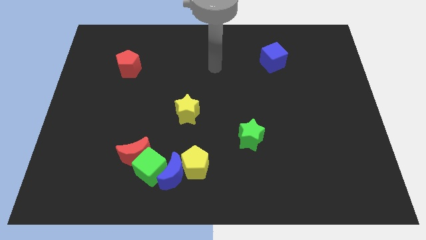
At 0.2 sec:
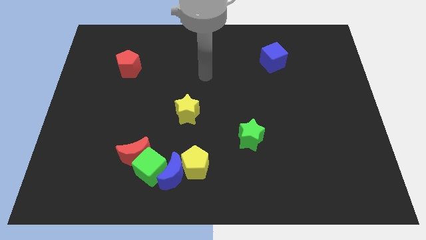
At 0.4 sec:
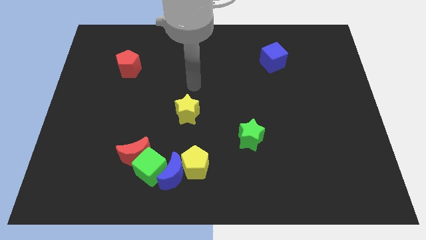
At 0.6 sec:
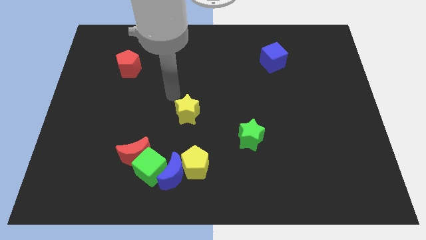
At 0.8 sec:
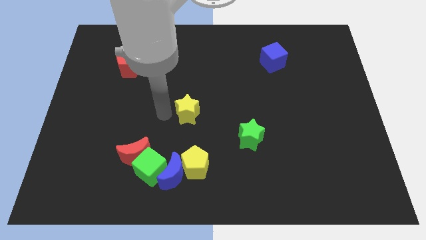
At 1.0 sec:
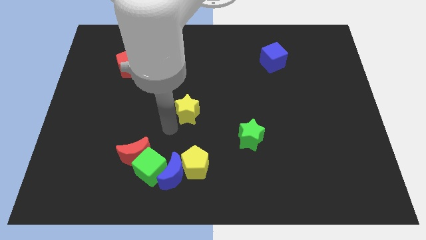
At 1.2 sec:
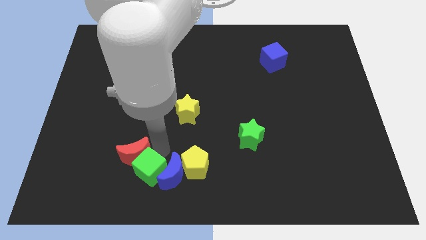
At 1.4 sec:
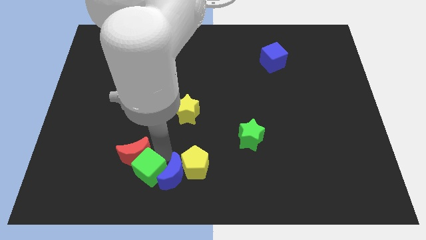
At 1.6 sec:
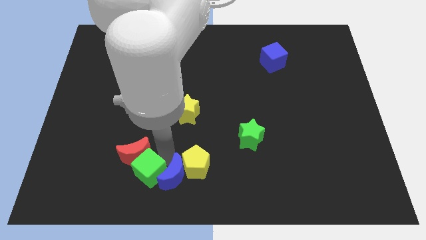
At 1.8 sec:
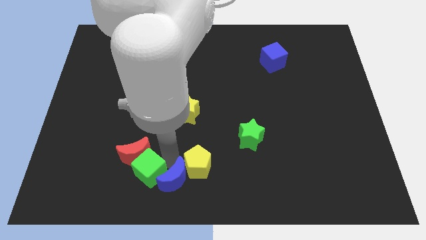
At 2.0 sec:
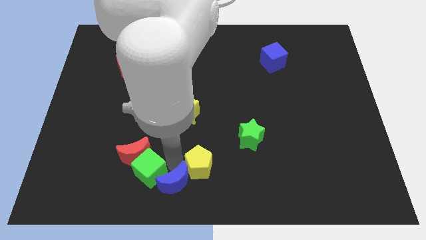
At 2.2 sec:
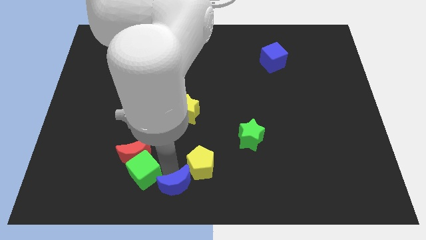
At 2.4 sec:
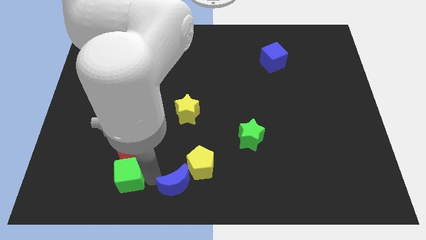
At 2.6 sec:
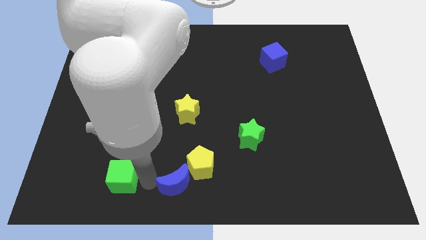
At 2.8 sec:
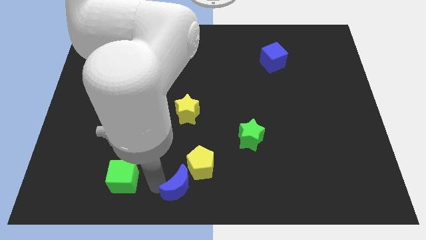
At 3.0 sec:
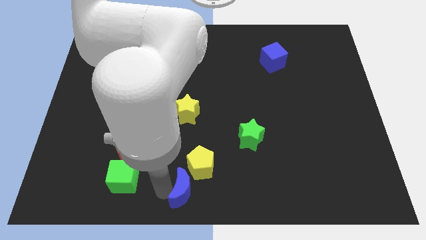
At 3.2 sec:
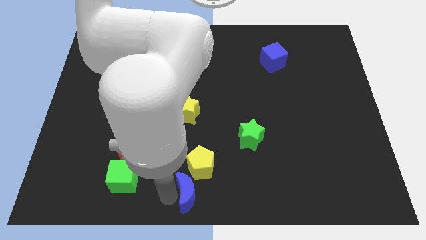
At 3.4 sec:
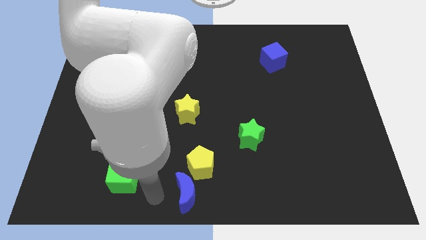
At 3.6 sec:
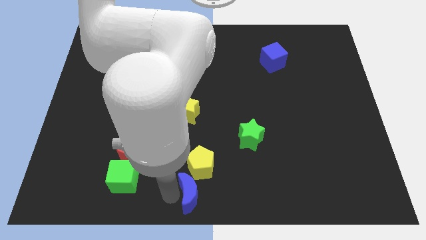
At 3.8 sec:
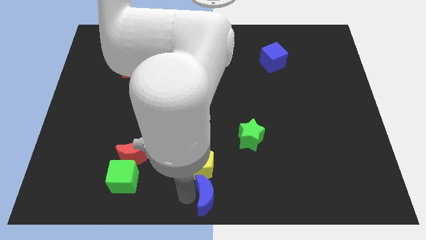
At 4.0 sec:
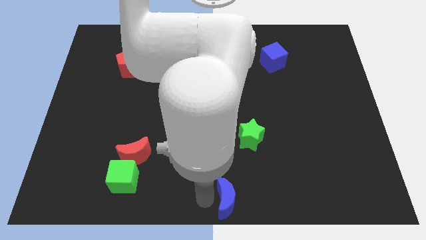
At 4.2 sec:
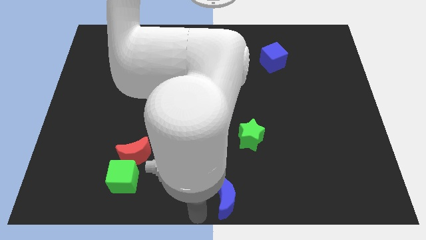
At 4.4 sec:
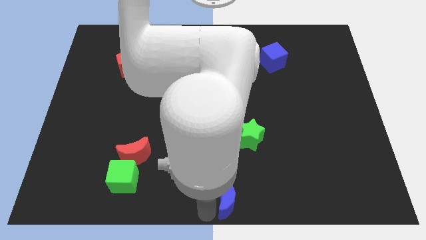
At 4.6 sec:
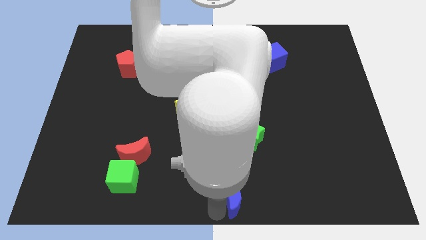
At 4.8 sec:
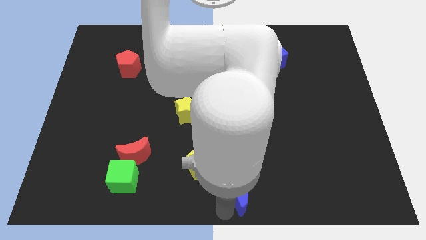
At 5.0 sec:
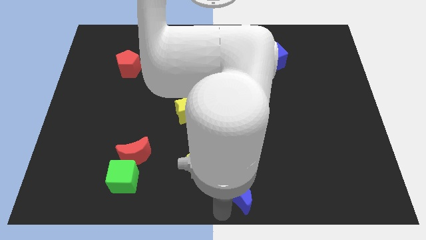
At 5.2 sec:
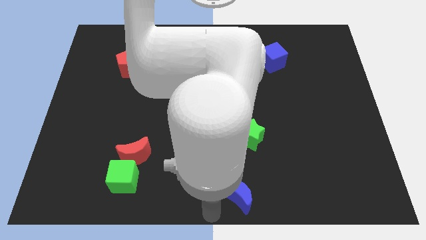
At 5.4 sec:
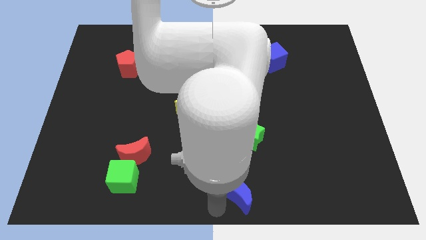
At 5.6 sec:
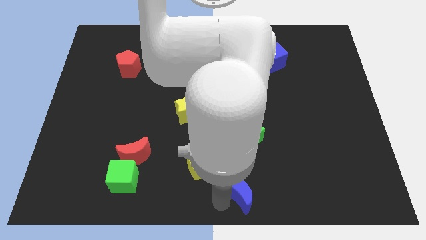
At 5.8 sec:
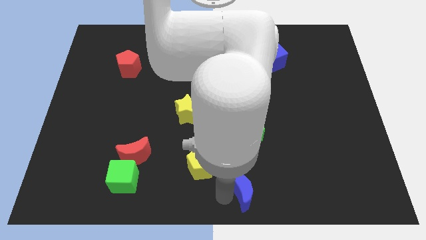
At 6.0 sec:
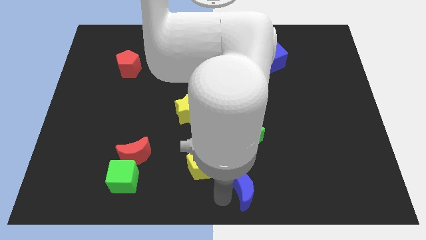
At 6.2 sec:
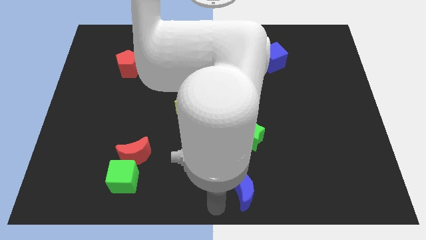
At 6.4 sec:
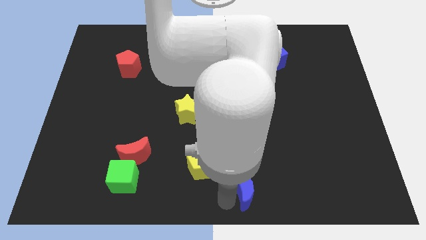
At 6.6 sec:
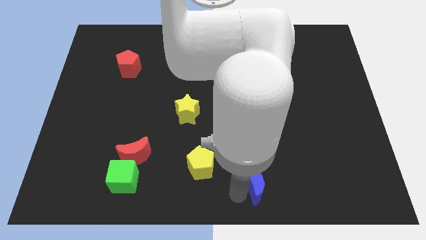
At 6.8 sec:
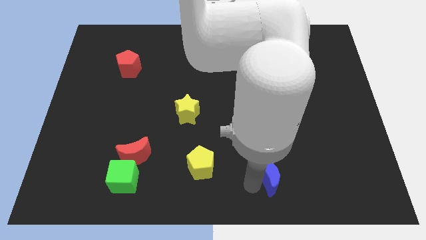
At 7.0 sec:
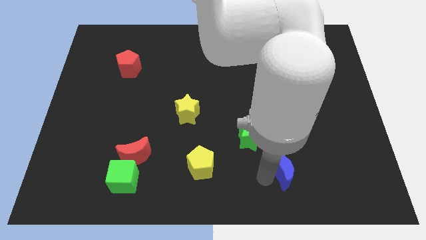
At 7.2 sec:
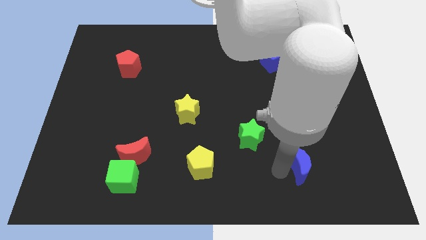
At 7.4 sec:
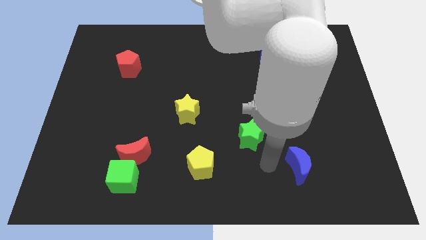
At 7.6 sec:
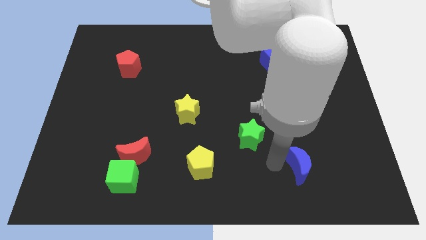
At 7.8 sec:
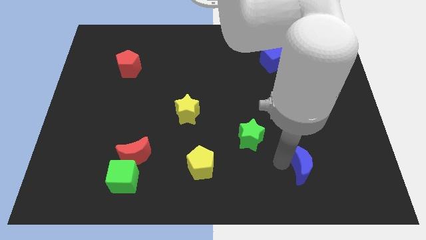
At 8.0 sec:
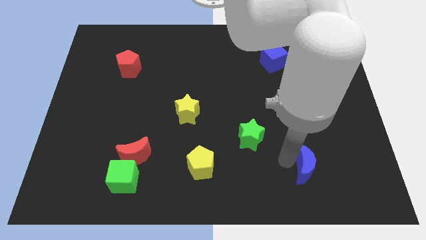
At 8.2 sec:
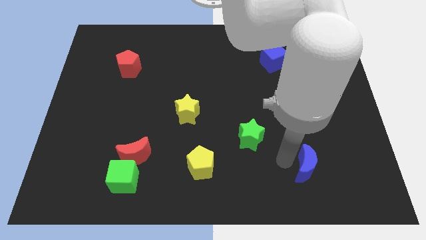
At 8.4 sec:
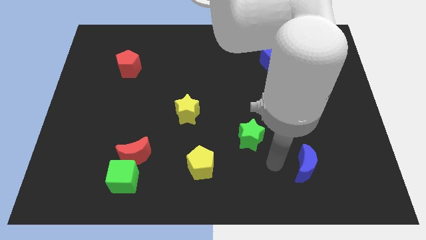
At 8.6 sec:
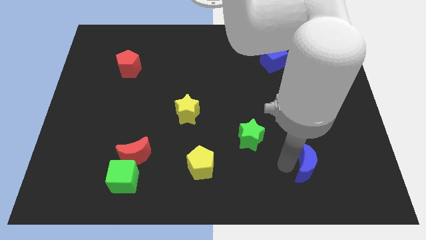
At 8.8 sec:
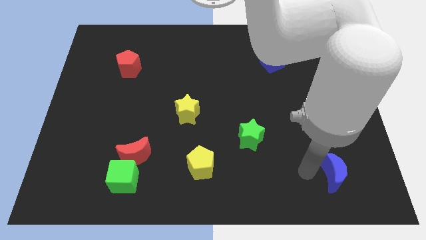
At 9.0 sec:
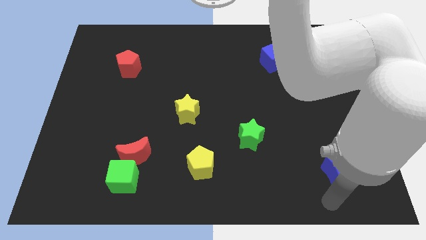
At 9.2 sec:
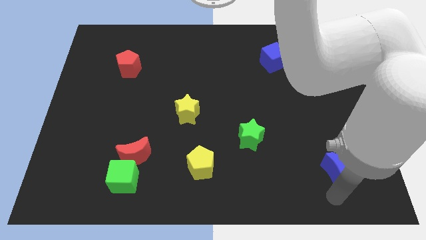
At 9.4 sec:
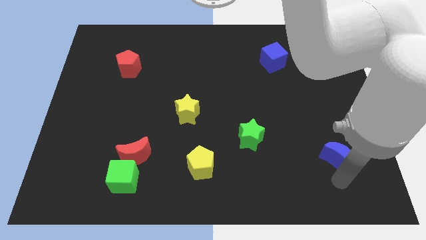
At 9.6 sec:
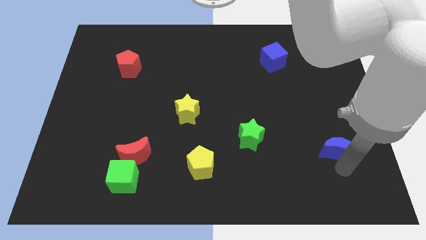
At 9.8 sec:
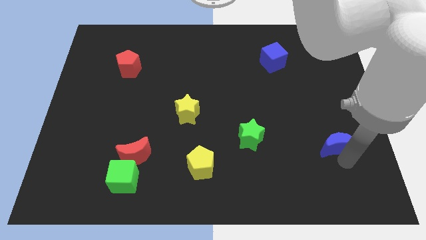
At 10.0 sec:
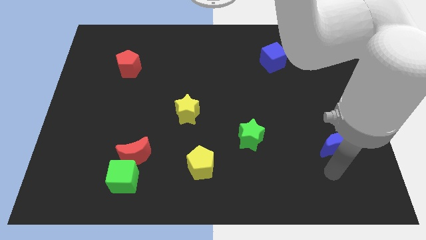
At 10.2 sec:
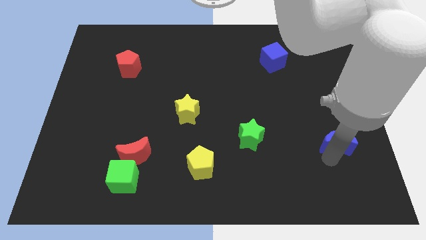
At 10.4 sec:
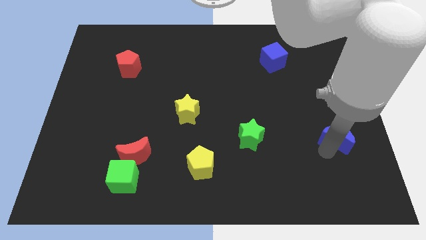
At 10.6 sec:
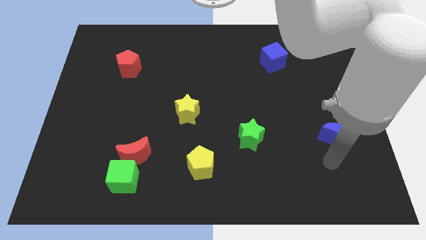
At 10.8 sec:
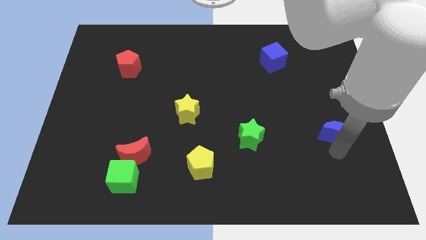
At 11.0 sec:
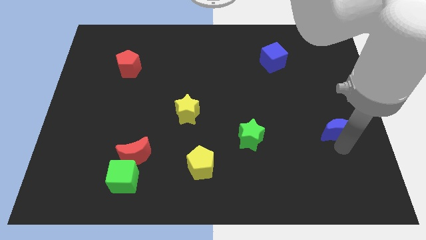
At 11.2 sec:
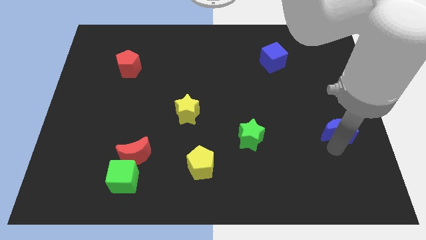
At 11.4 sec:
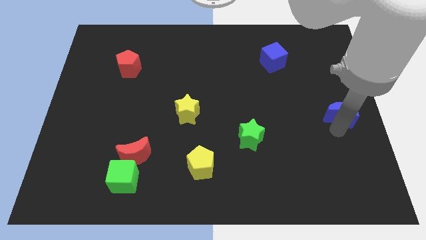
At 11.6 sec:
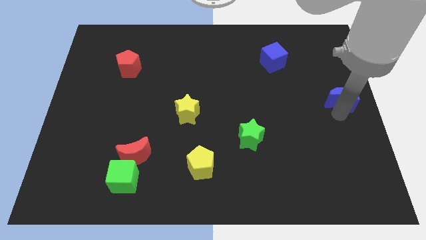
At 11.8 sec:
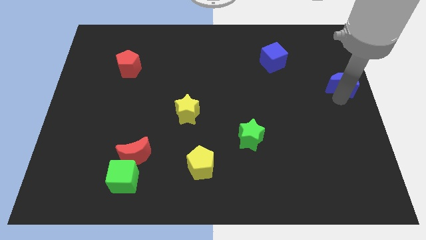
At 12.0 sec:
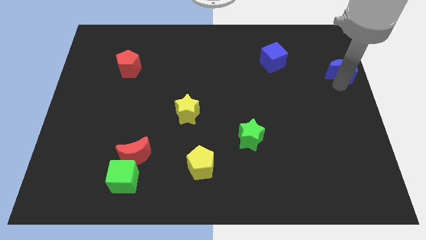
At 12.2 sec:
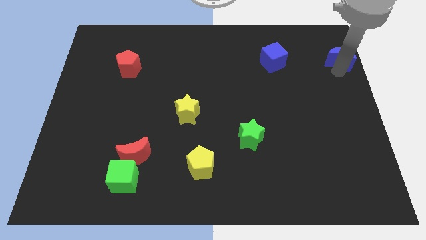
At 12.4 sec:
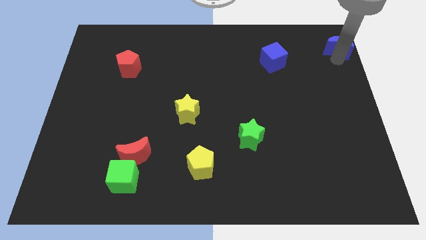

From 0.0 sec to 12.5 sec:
slide the blue moon to the top right
